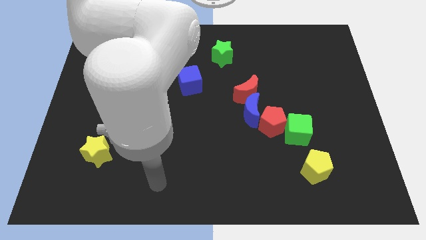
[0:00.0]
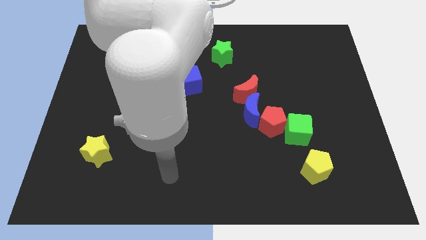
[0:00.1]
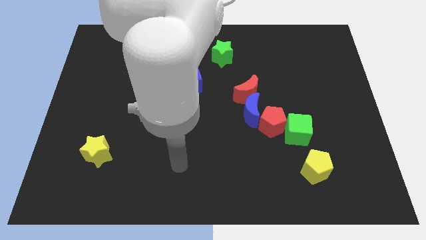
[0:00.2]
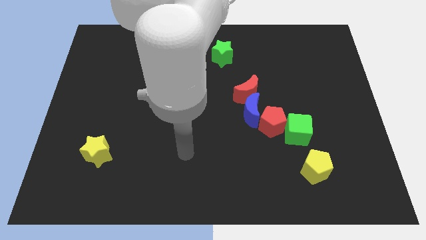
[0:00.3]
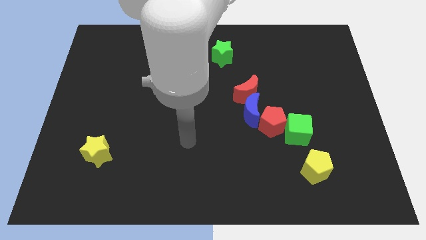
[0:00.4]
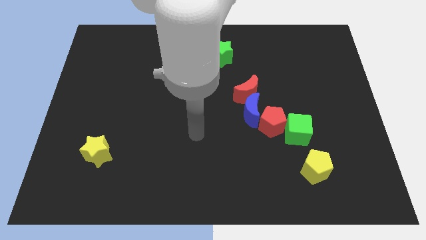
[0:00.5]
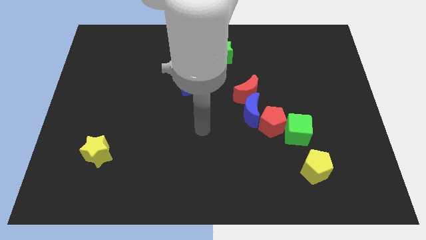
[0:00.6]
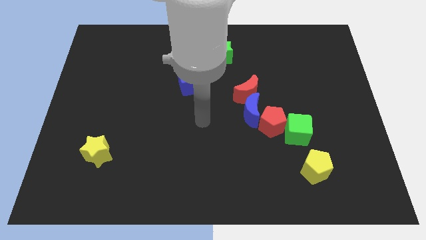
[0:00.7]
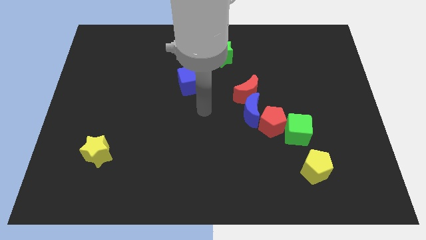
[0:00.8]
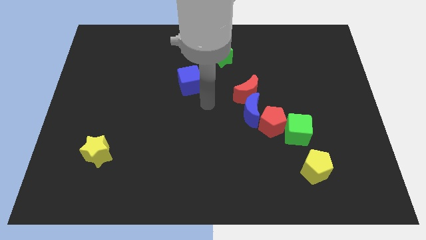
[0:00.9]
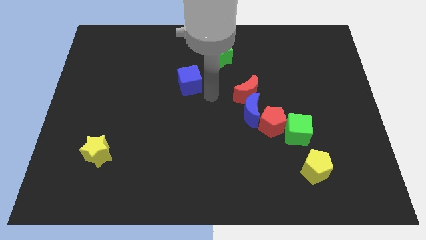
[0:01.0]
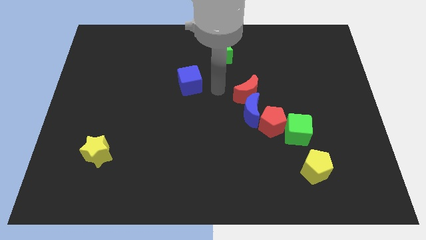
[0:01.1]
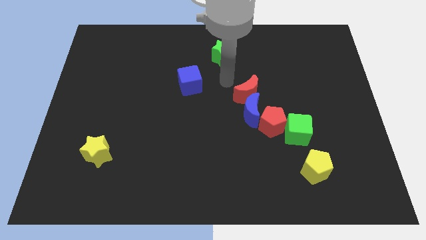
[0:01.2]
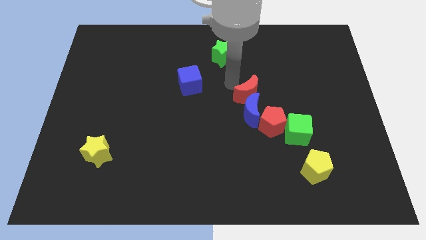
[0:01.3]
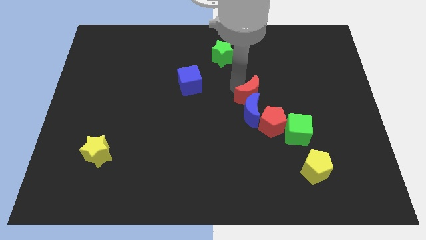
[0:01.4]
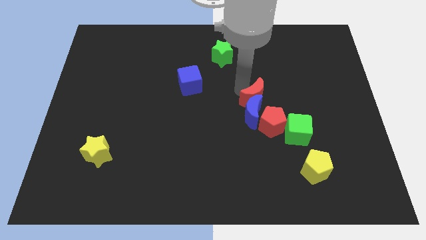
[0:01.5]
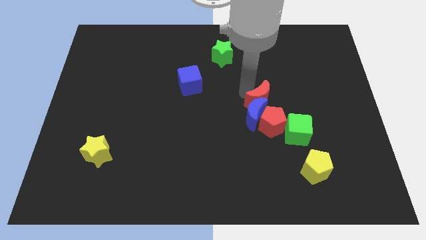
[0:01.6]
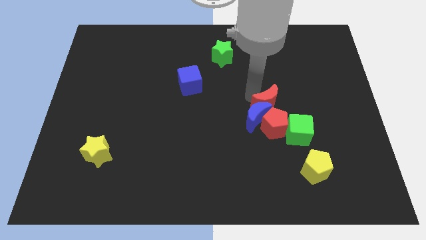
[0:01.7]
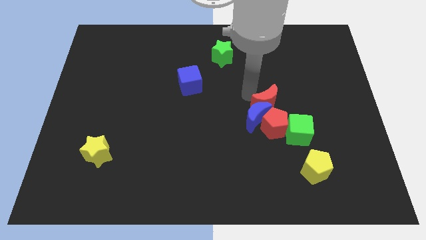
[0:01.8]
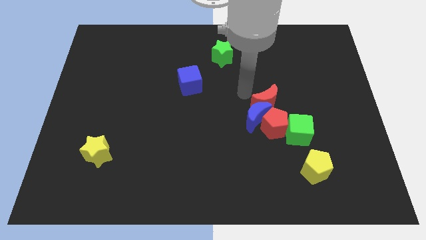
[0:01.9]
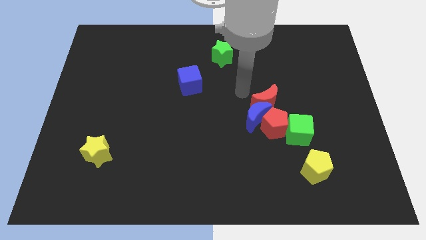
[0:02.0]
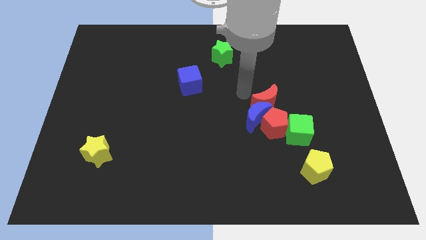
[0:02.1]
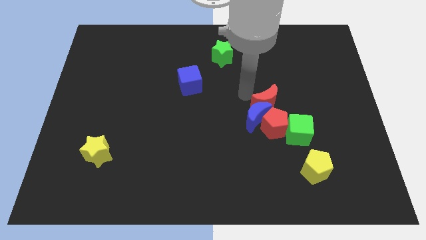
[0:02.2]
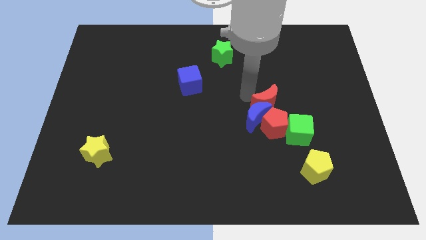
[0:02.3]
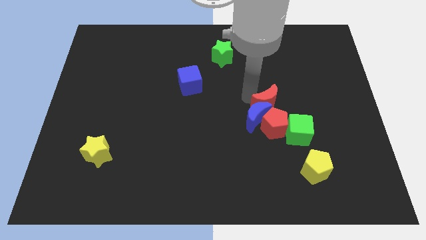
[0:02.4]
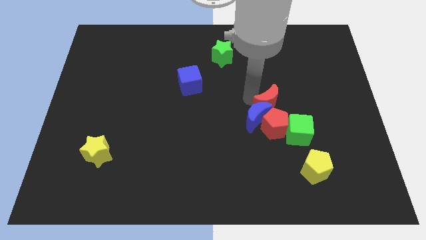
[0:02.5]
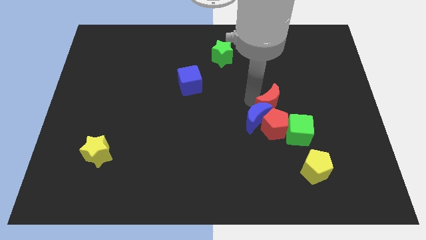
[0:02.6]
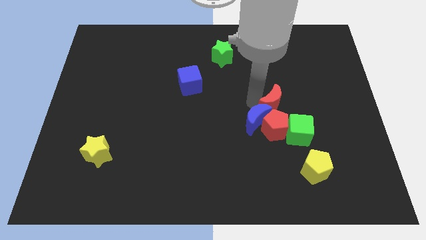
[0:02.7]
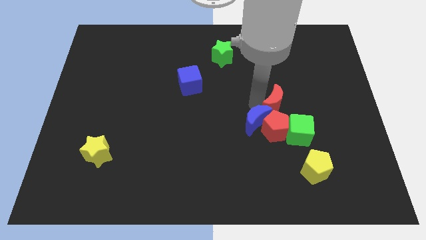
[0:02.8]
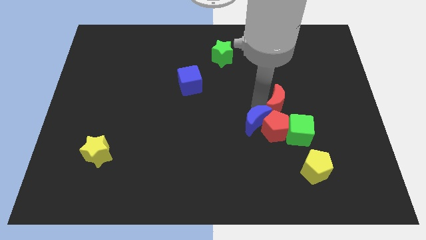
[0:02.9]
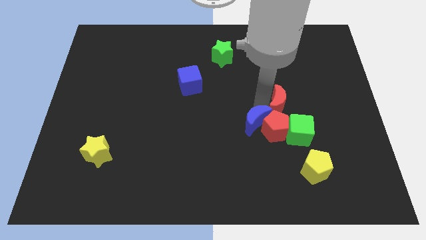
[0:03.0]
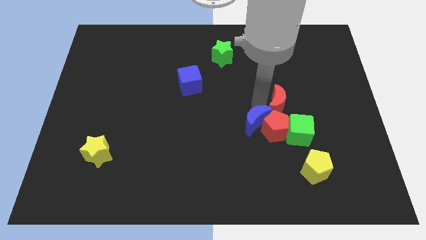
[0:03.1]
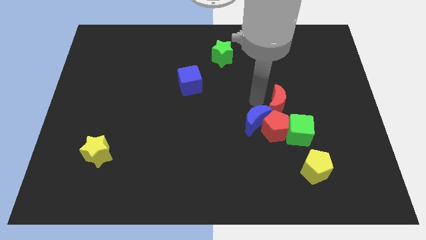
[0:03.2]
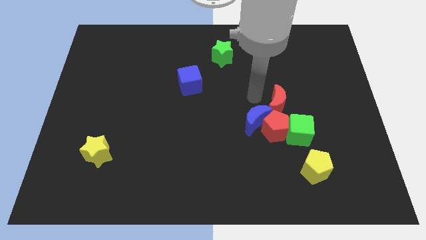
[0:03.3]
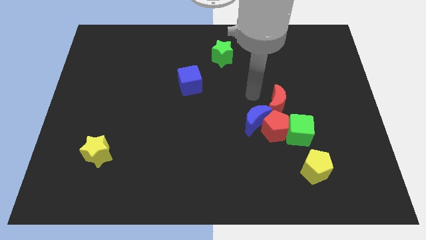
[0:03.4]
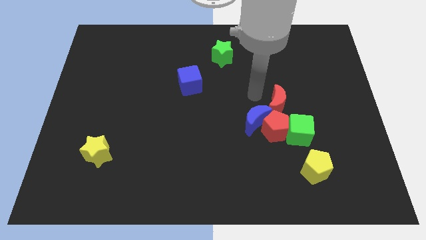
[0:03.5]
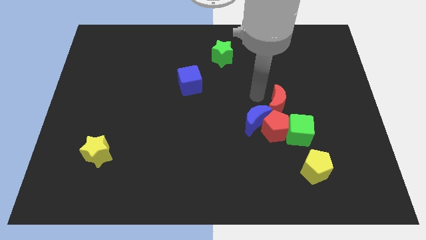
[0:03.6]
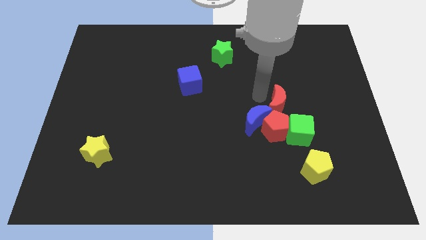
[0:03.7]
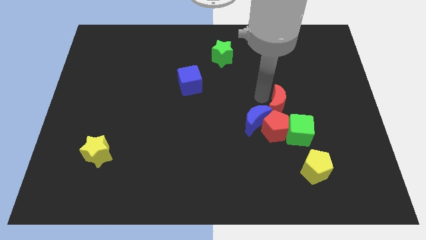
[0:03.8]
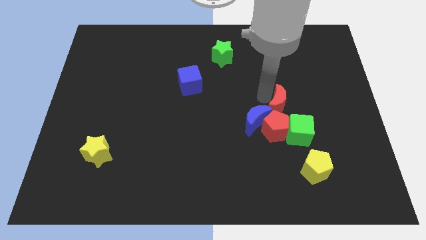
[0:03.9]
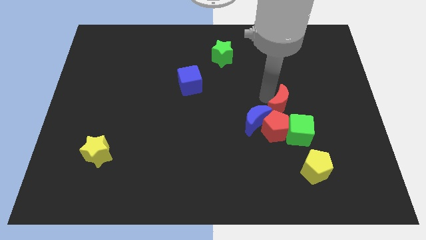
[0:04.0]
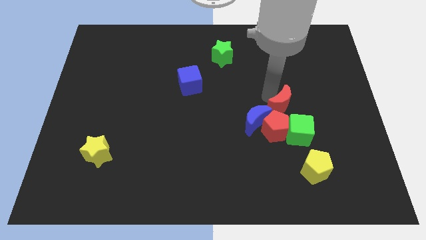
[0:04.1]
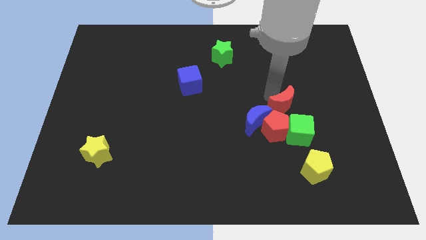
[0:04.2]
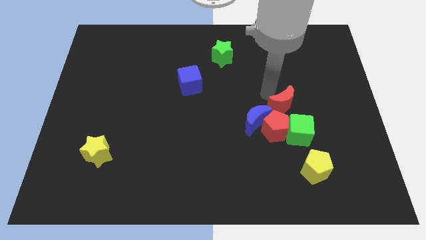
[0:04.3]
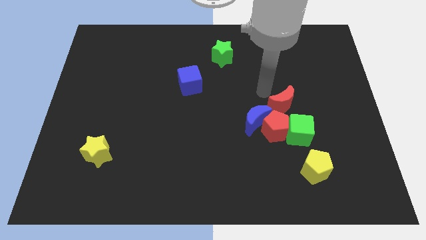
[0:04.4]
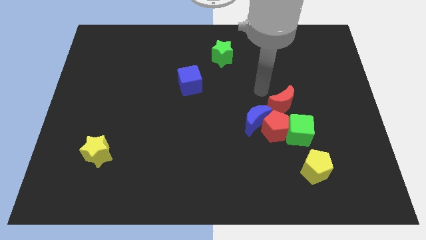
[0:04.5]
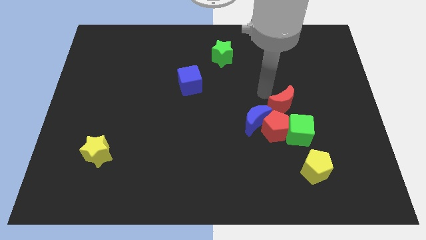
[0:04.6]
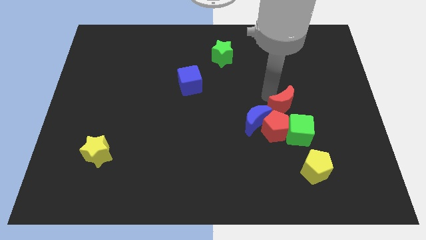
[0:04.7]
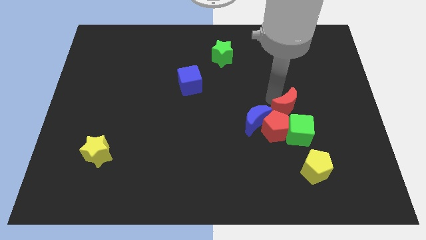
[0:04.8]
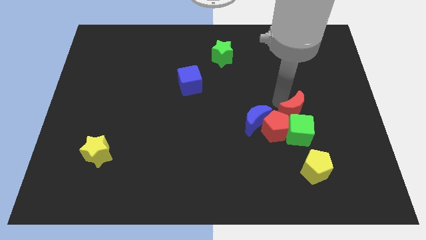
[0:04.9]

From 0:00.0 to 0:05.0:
move the red moon next to the green cube

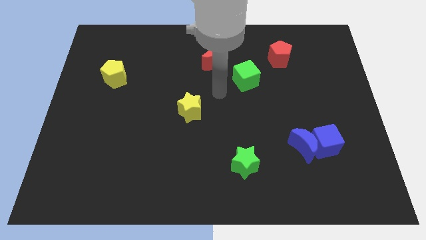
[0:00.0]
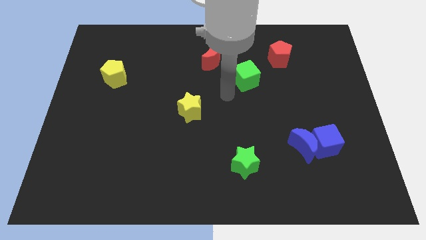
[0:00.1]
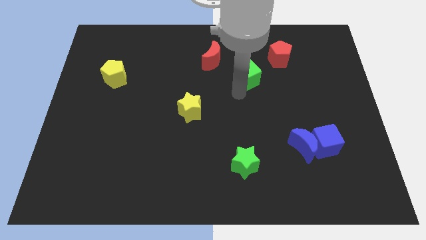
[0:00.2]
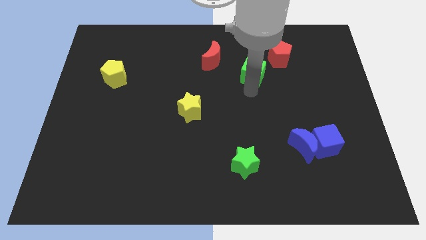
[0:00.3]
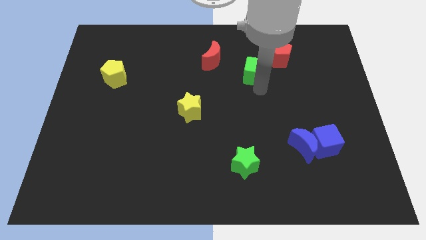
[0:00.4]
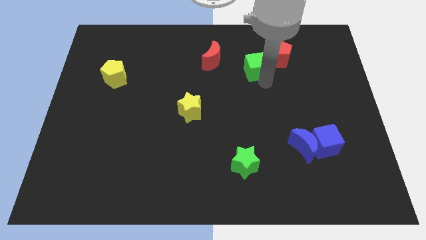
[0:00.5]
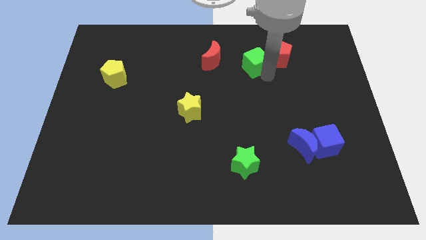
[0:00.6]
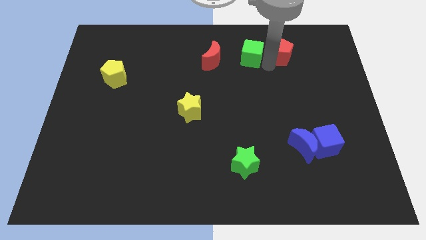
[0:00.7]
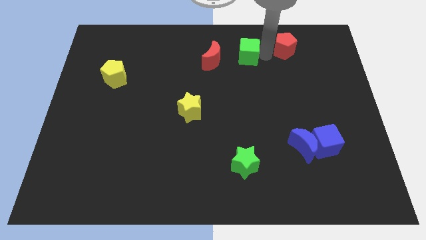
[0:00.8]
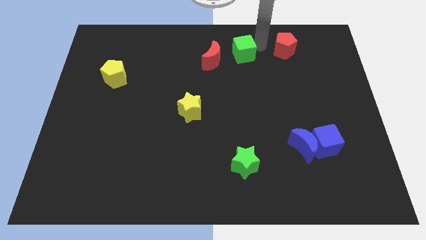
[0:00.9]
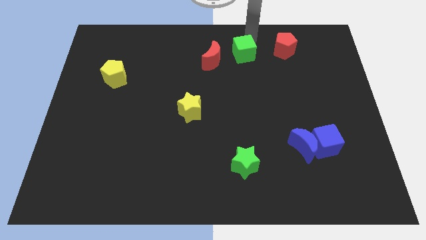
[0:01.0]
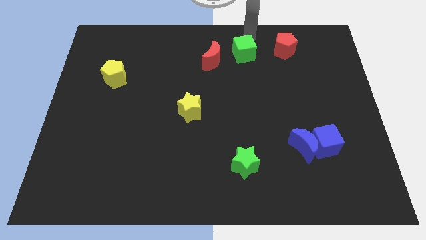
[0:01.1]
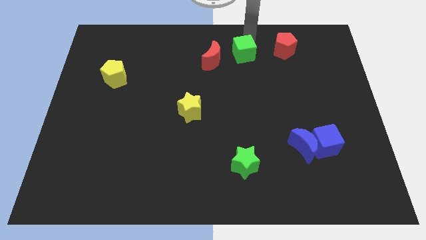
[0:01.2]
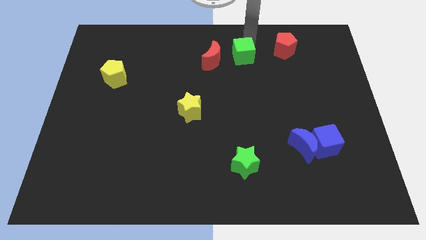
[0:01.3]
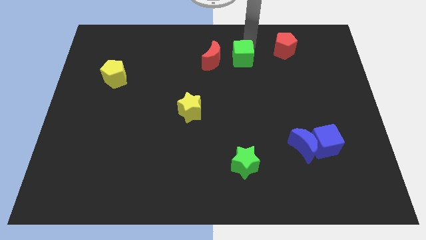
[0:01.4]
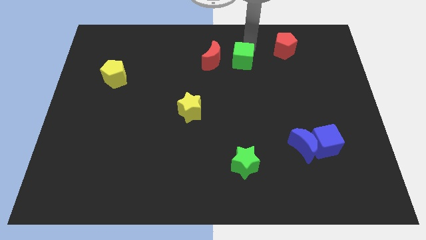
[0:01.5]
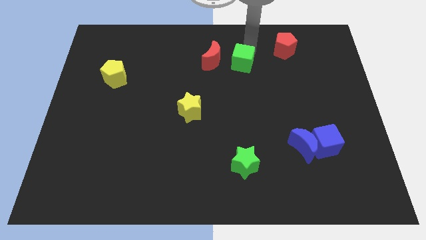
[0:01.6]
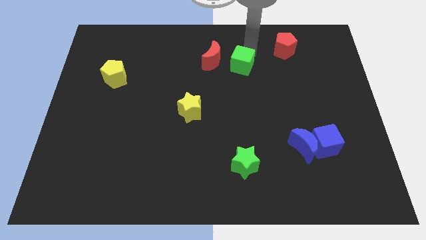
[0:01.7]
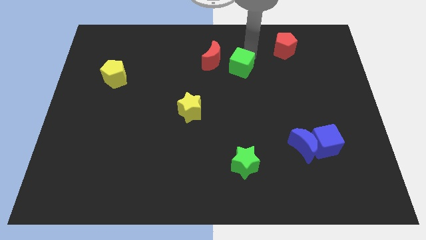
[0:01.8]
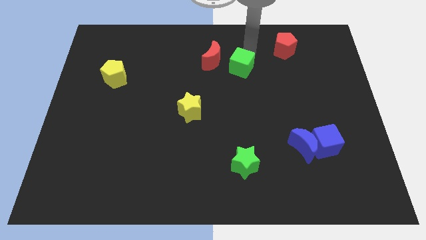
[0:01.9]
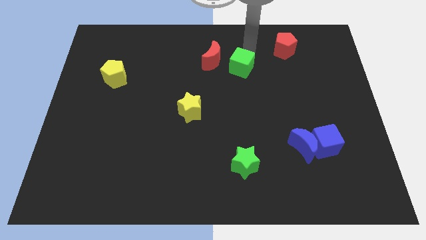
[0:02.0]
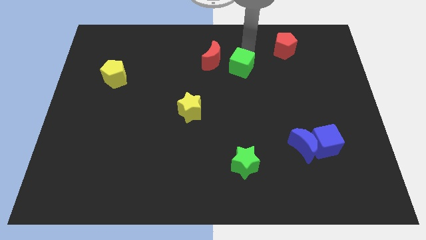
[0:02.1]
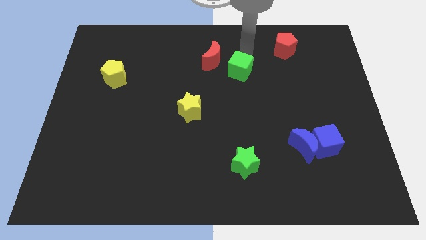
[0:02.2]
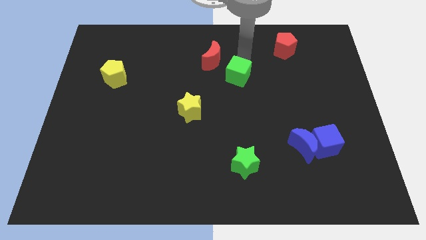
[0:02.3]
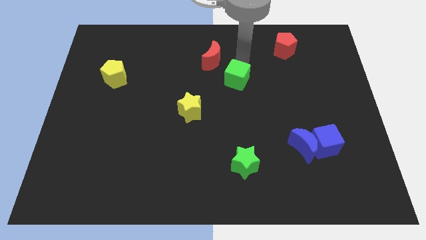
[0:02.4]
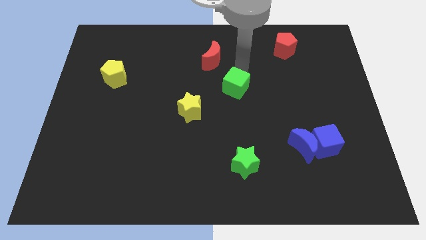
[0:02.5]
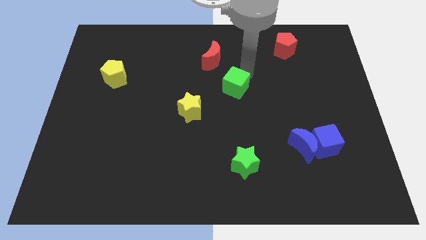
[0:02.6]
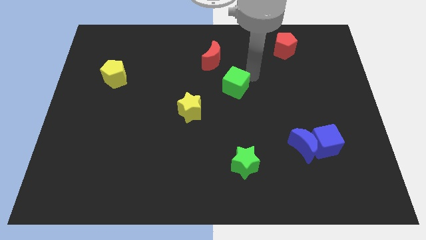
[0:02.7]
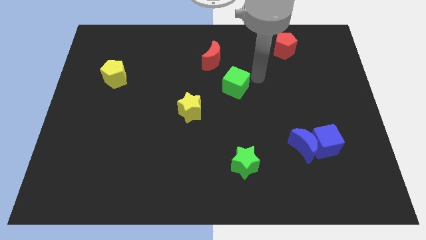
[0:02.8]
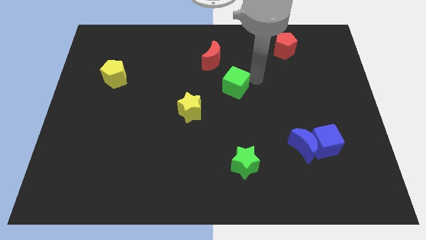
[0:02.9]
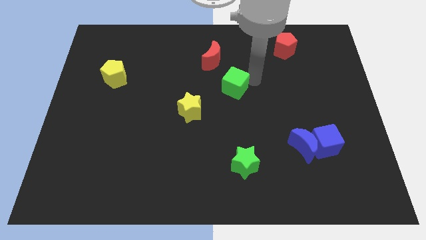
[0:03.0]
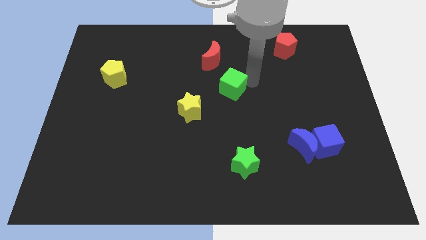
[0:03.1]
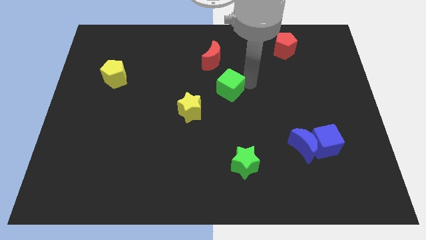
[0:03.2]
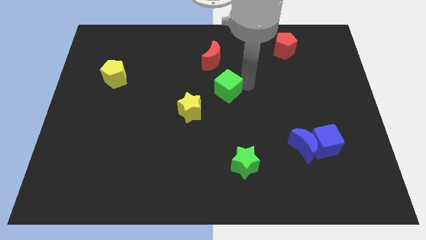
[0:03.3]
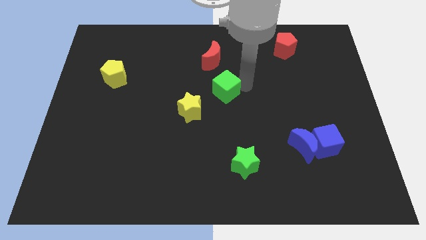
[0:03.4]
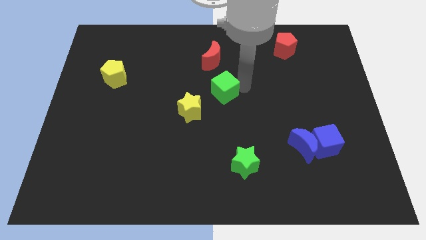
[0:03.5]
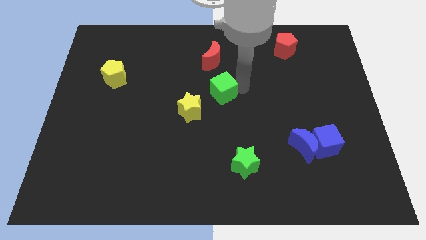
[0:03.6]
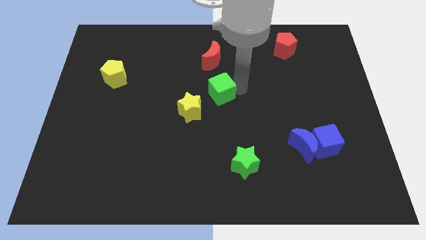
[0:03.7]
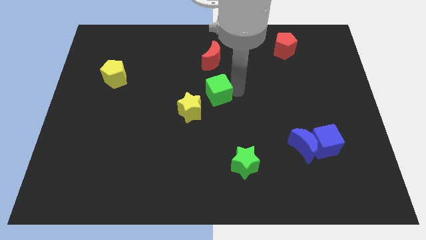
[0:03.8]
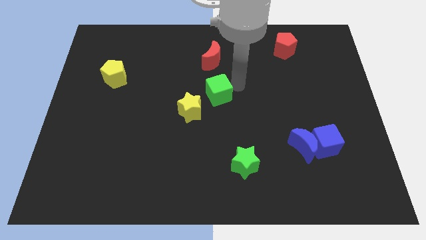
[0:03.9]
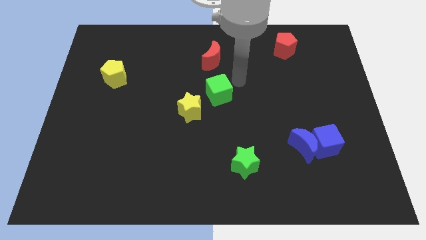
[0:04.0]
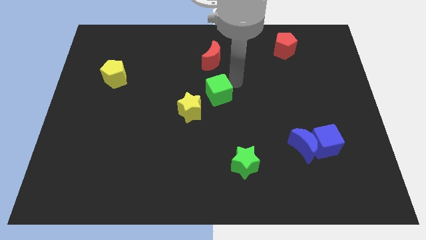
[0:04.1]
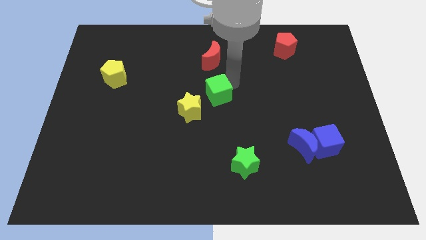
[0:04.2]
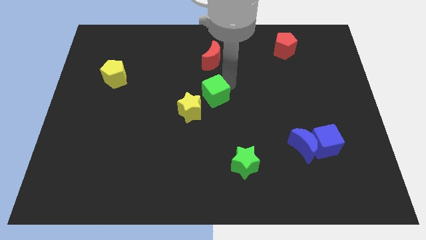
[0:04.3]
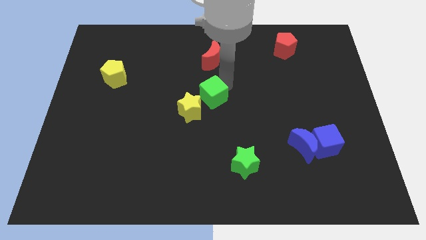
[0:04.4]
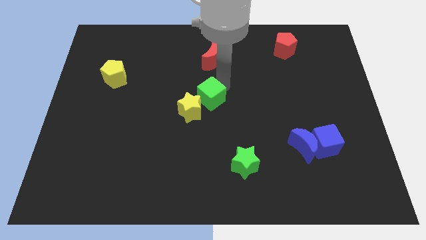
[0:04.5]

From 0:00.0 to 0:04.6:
move the green cube towards the yellow star
